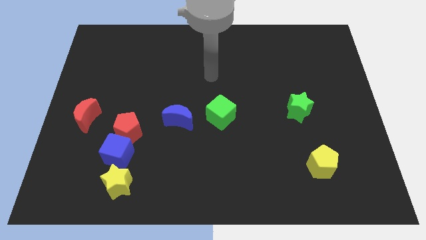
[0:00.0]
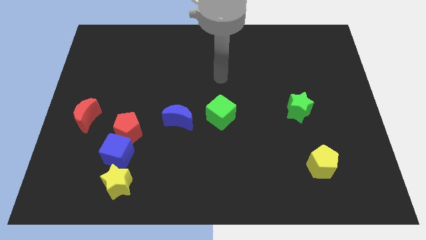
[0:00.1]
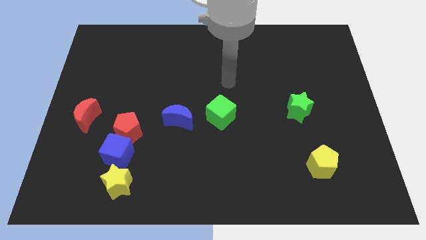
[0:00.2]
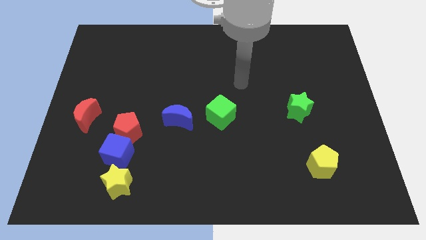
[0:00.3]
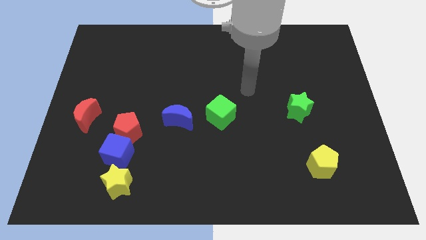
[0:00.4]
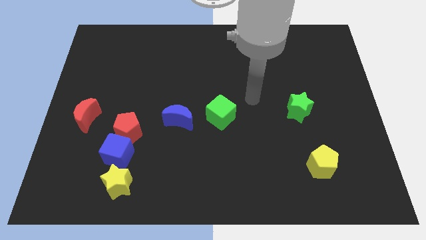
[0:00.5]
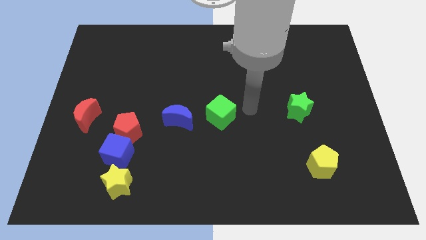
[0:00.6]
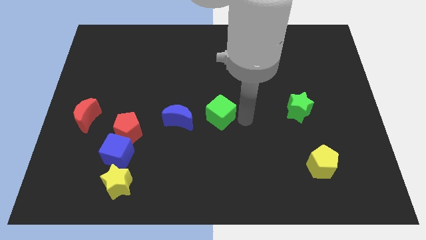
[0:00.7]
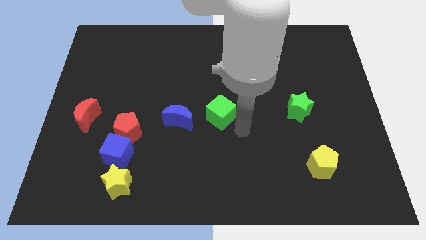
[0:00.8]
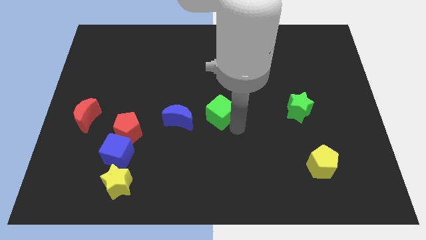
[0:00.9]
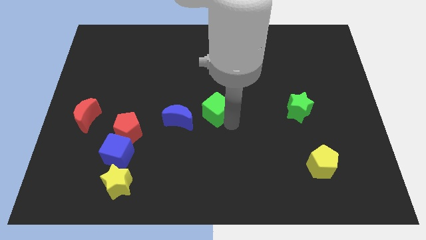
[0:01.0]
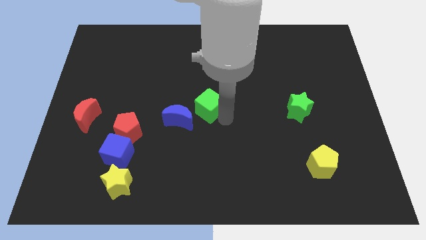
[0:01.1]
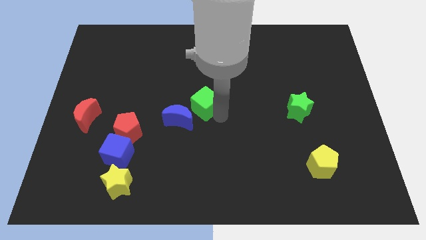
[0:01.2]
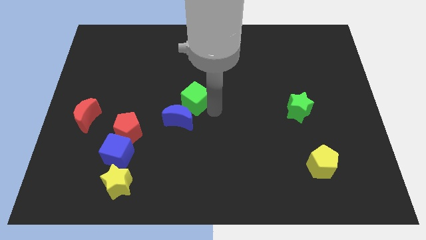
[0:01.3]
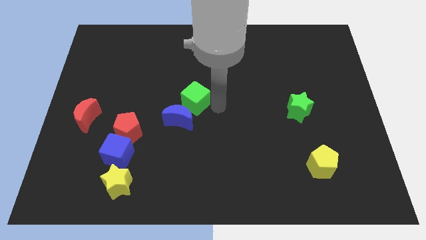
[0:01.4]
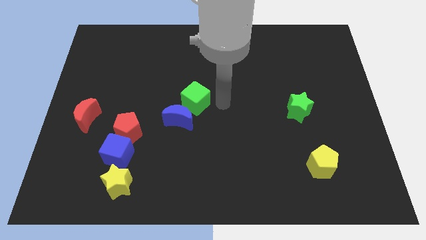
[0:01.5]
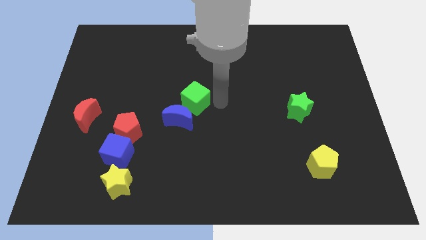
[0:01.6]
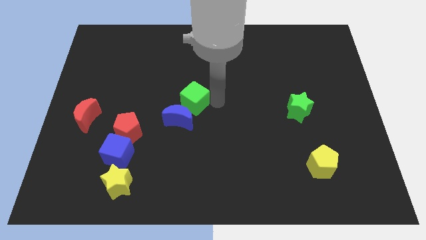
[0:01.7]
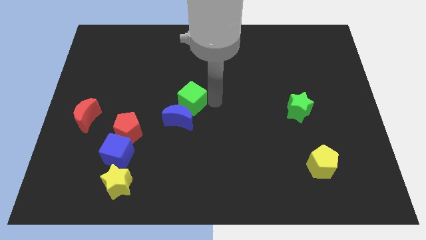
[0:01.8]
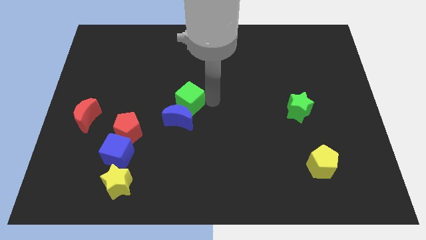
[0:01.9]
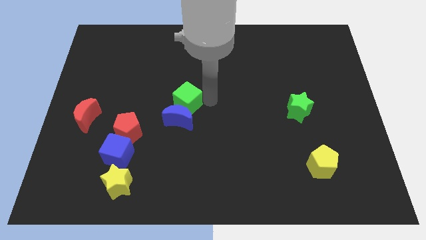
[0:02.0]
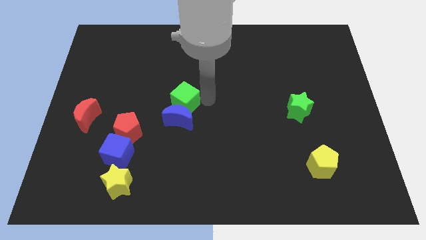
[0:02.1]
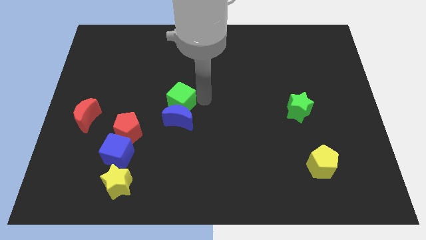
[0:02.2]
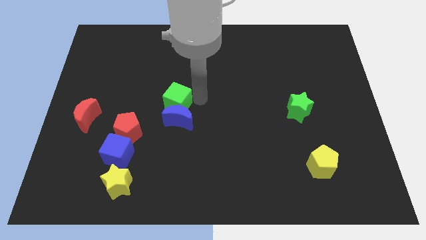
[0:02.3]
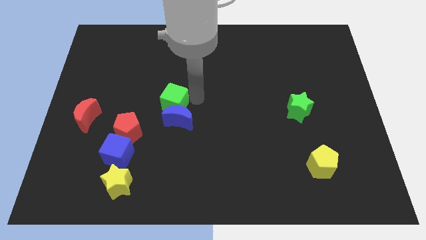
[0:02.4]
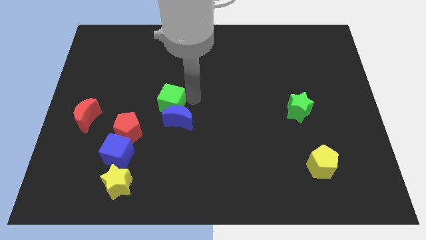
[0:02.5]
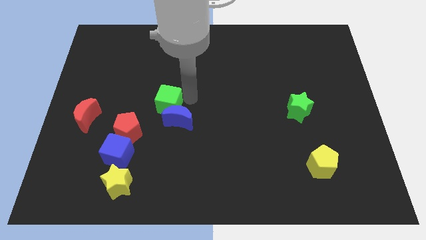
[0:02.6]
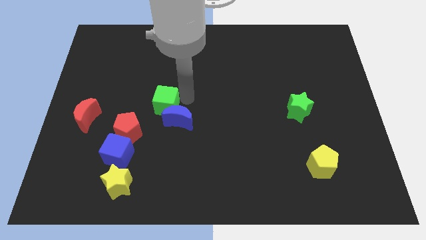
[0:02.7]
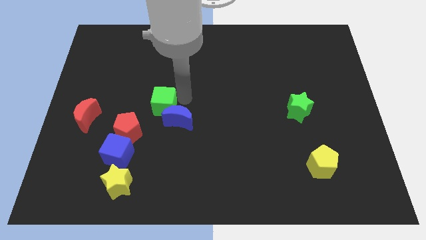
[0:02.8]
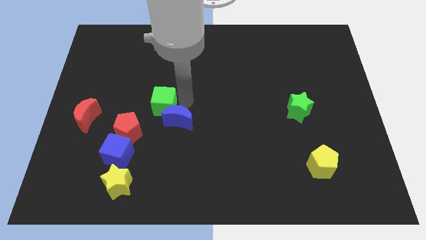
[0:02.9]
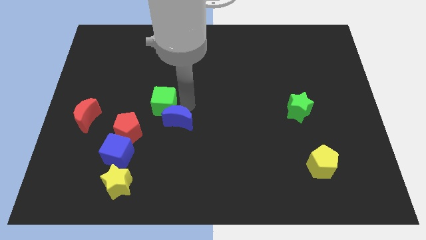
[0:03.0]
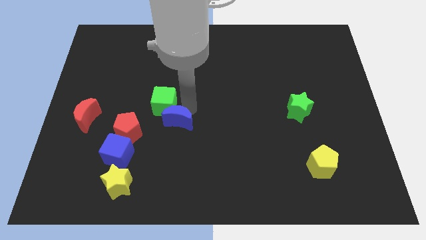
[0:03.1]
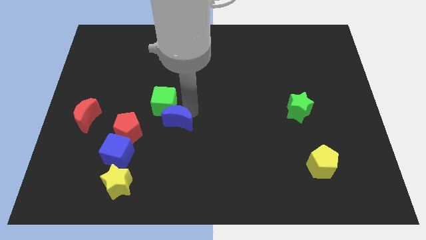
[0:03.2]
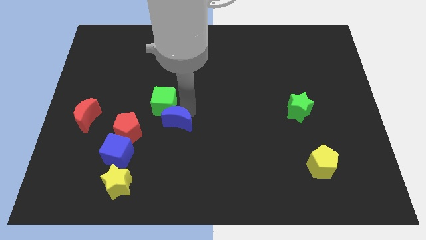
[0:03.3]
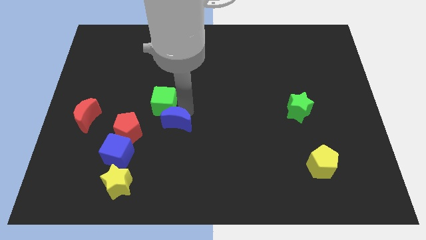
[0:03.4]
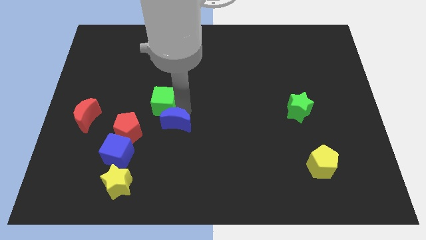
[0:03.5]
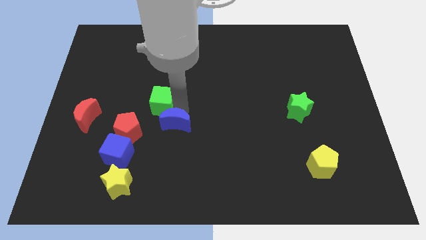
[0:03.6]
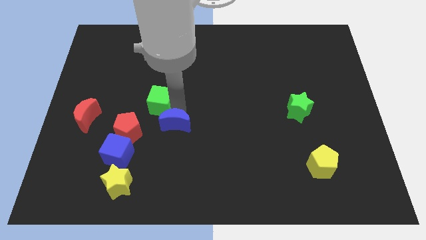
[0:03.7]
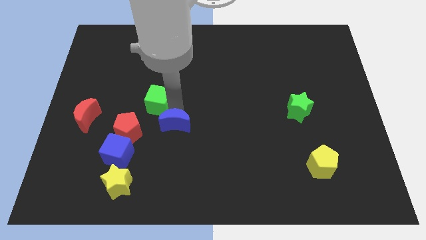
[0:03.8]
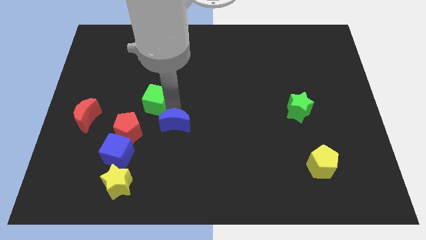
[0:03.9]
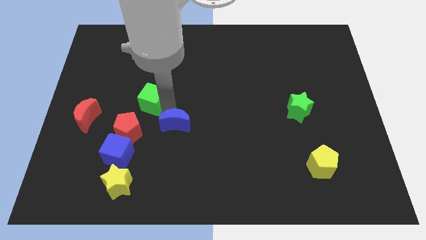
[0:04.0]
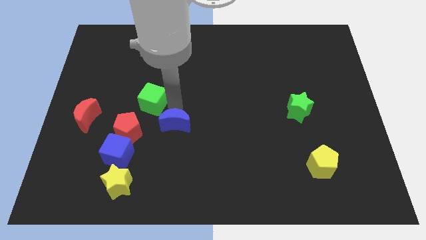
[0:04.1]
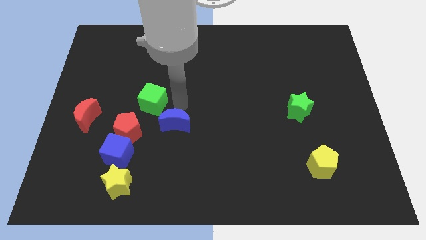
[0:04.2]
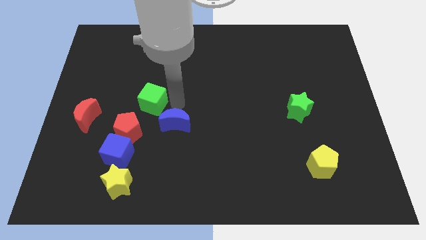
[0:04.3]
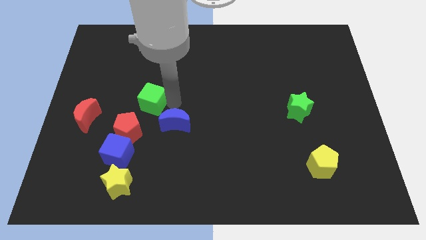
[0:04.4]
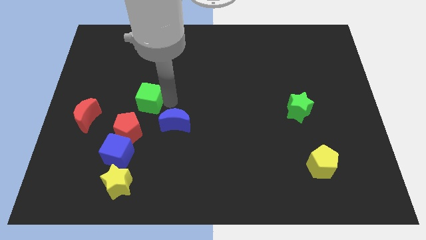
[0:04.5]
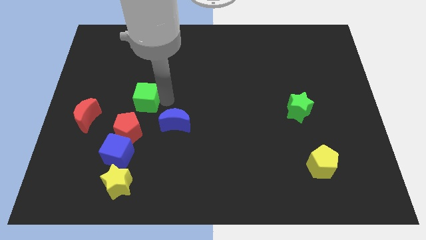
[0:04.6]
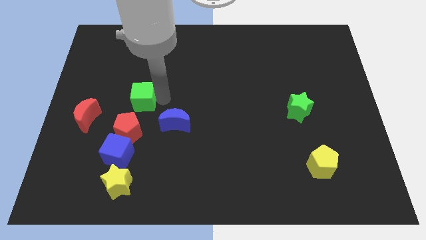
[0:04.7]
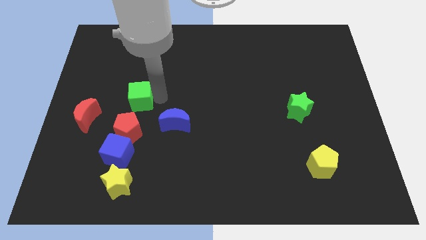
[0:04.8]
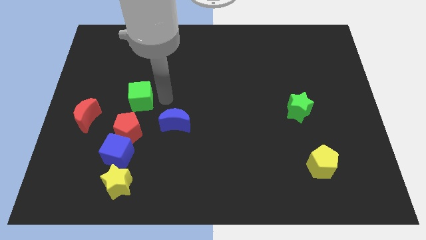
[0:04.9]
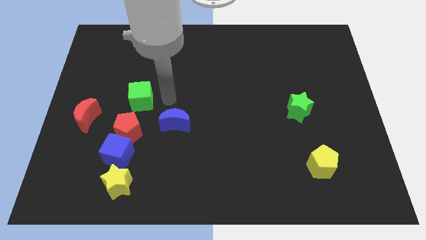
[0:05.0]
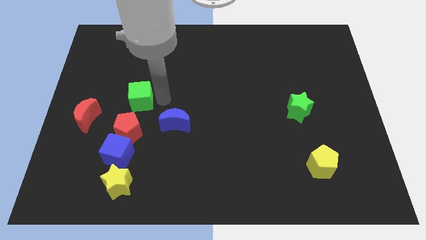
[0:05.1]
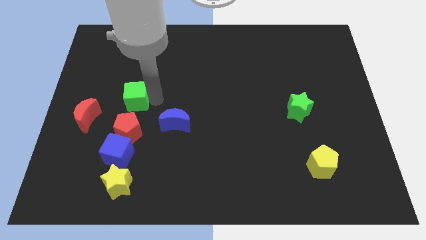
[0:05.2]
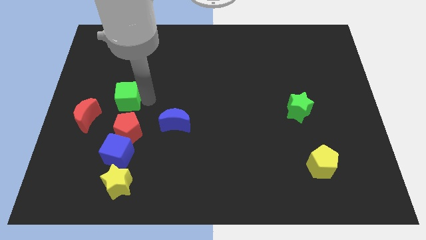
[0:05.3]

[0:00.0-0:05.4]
move the green cube diagonally up and to the right of the red moon

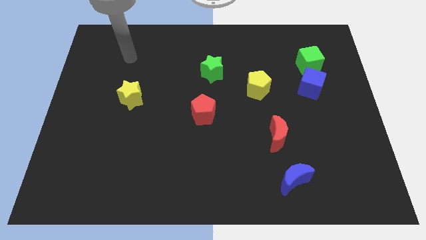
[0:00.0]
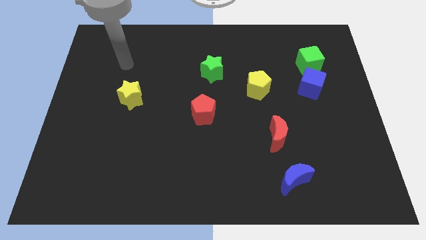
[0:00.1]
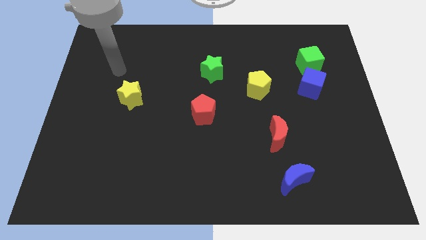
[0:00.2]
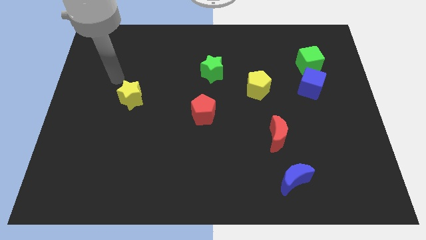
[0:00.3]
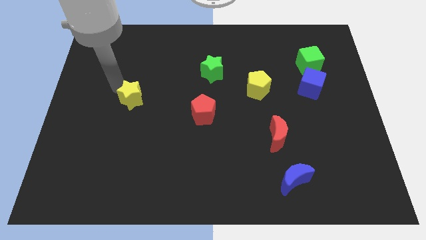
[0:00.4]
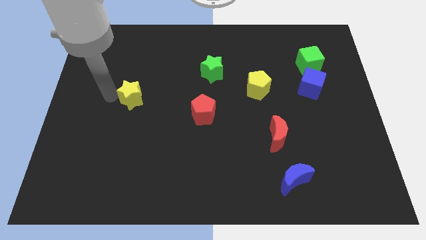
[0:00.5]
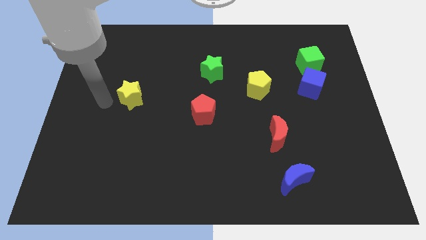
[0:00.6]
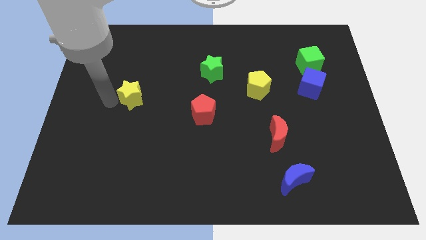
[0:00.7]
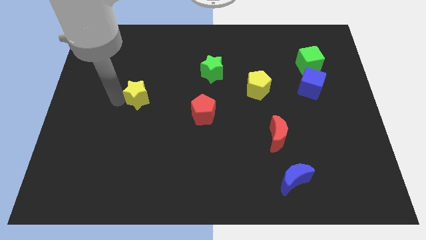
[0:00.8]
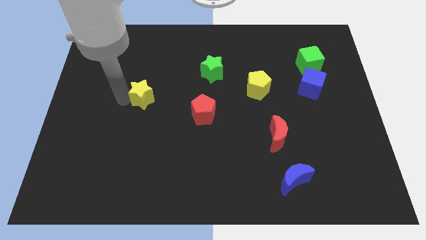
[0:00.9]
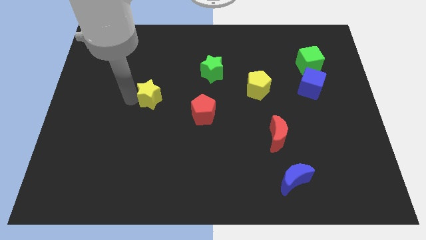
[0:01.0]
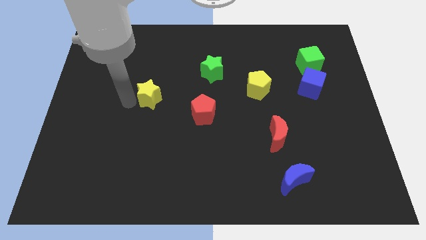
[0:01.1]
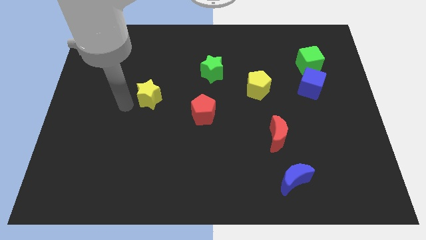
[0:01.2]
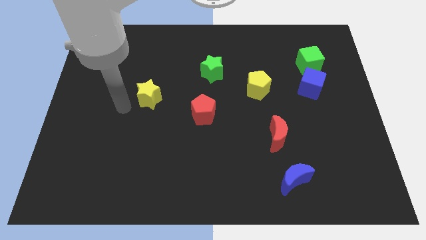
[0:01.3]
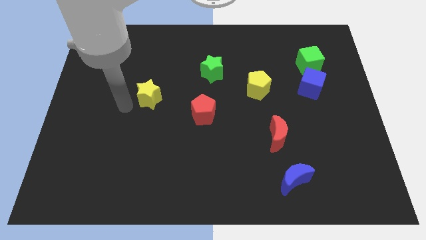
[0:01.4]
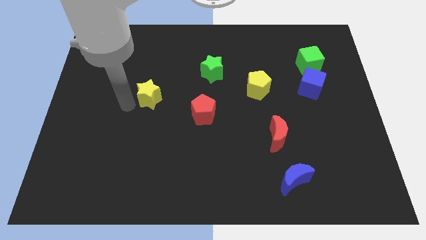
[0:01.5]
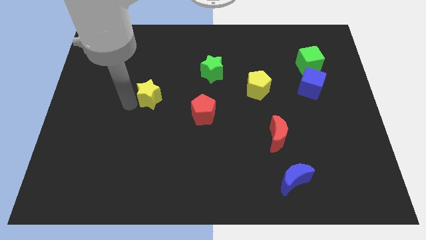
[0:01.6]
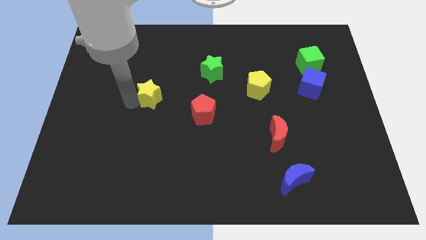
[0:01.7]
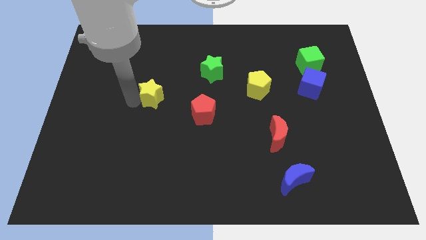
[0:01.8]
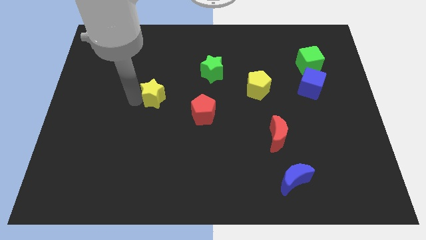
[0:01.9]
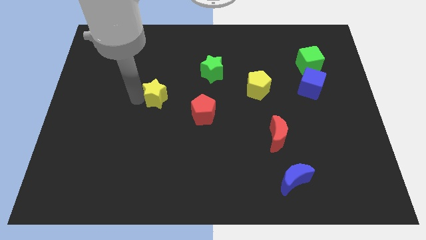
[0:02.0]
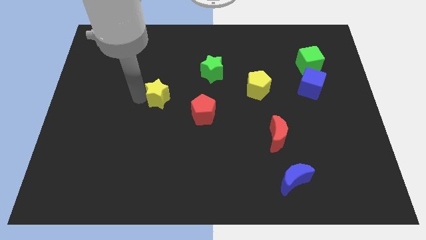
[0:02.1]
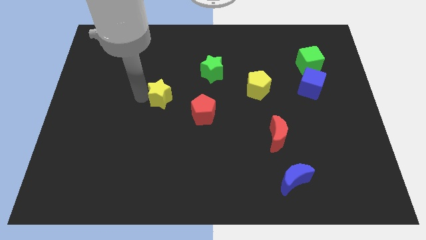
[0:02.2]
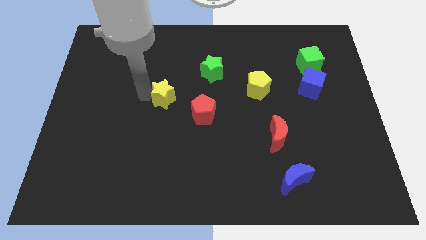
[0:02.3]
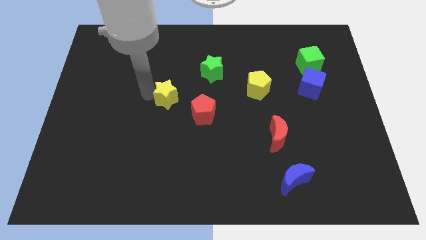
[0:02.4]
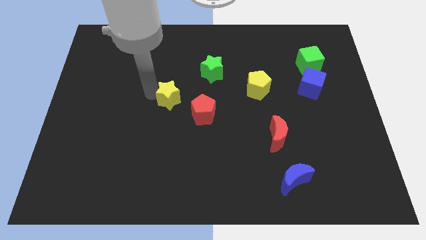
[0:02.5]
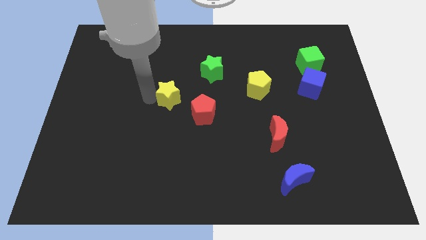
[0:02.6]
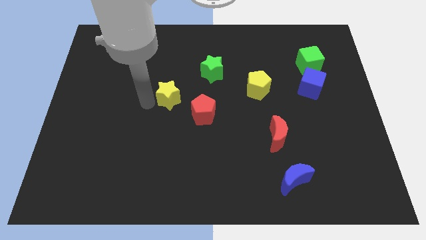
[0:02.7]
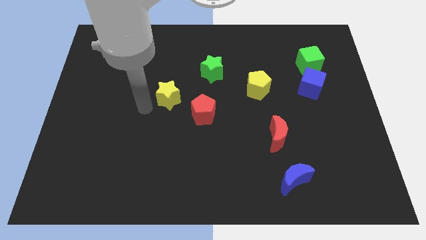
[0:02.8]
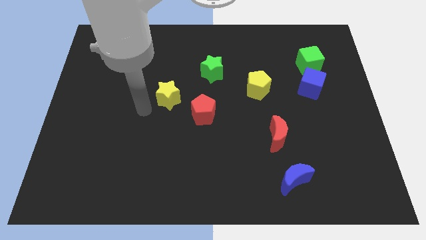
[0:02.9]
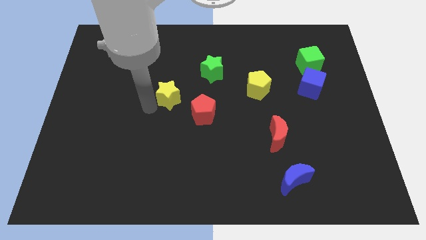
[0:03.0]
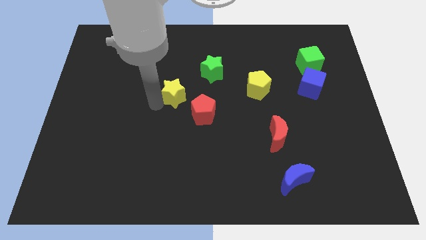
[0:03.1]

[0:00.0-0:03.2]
move the yellow star diagonally down and to the left of the green star
